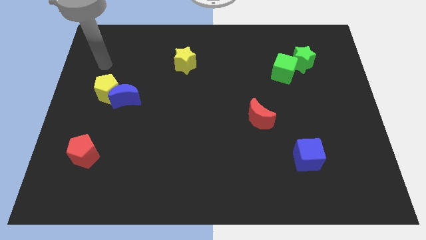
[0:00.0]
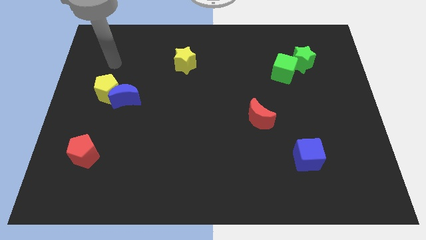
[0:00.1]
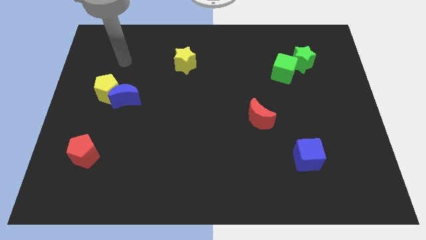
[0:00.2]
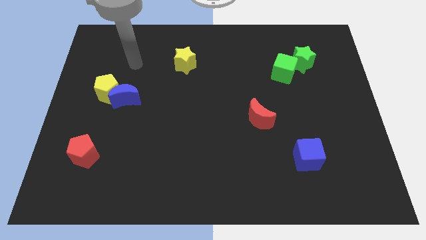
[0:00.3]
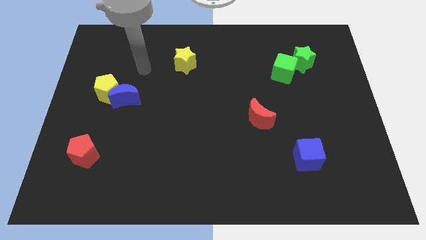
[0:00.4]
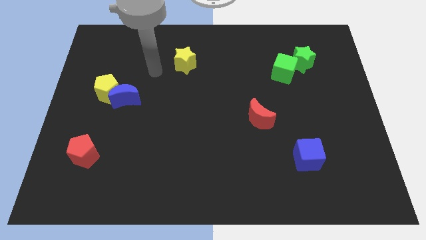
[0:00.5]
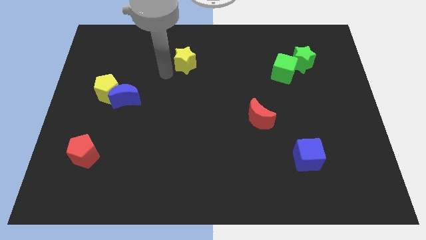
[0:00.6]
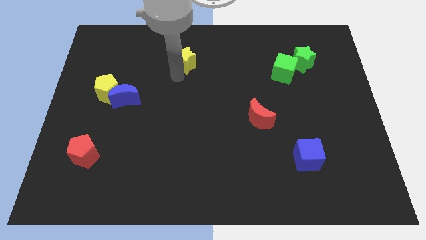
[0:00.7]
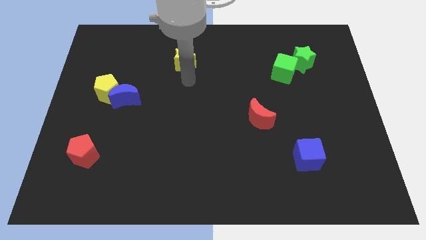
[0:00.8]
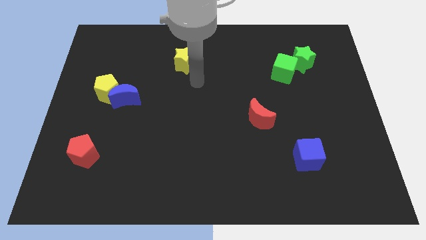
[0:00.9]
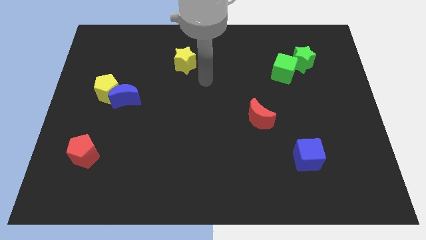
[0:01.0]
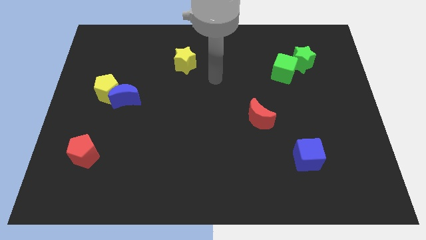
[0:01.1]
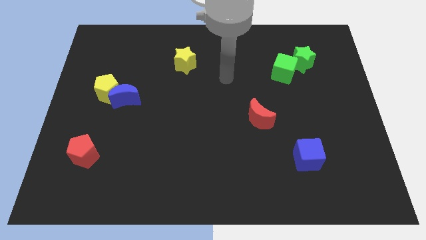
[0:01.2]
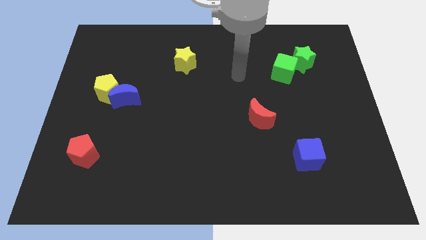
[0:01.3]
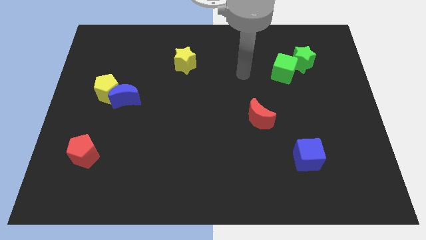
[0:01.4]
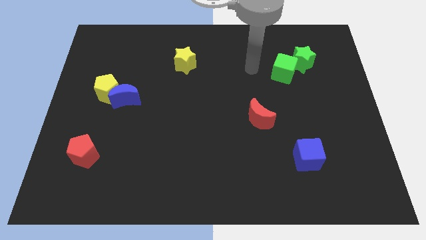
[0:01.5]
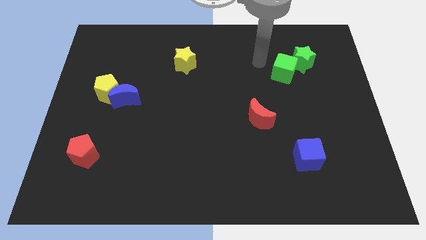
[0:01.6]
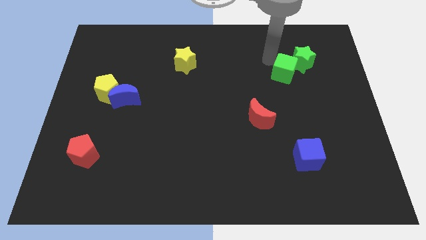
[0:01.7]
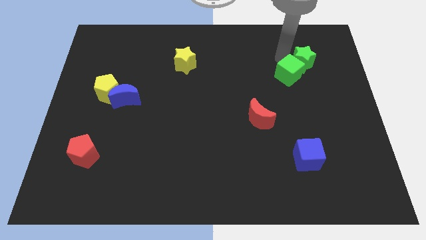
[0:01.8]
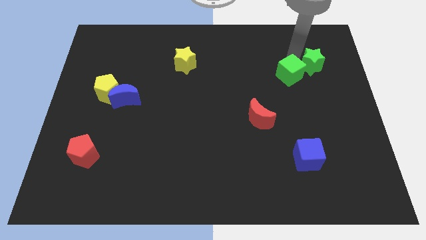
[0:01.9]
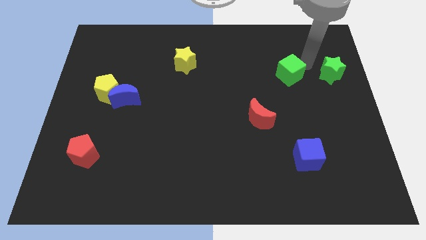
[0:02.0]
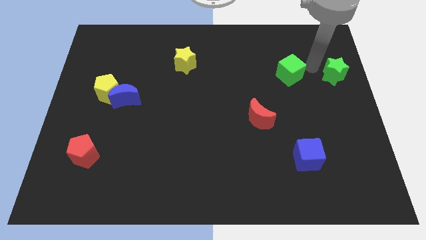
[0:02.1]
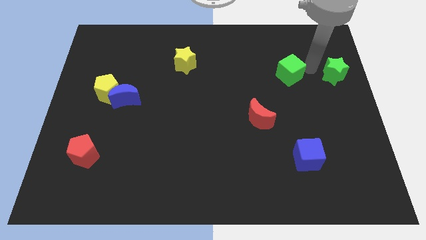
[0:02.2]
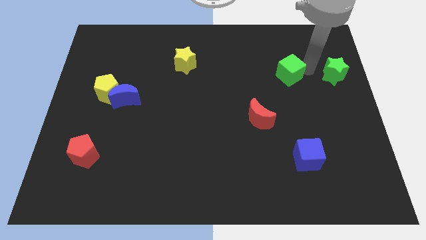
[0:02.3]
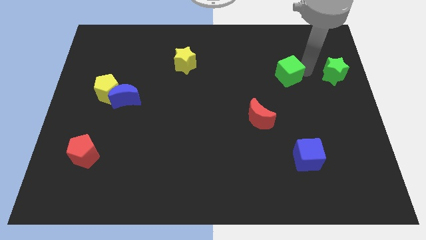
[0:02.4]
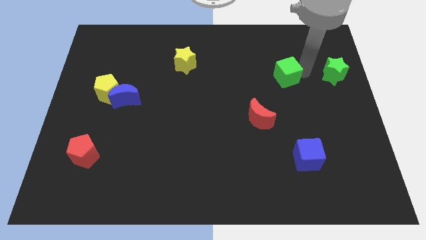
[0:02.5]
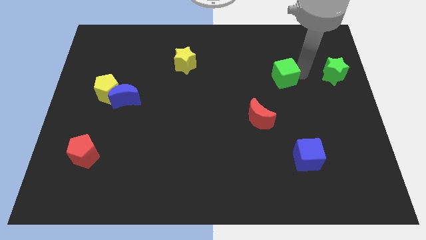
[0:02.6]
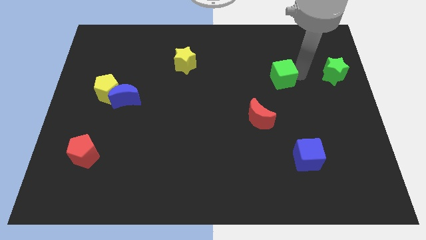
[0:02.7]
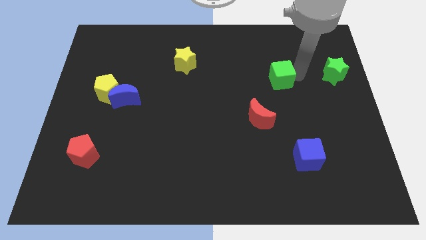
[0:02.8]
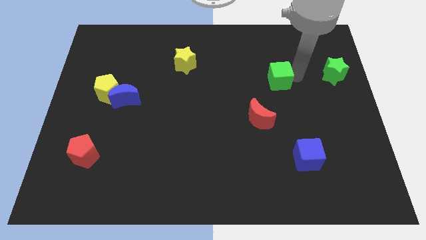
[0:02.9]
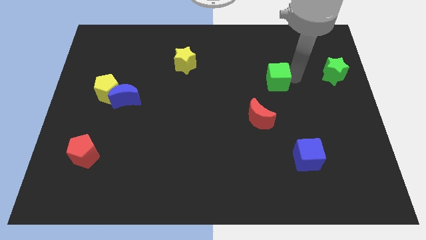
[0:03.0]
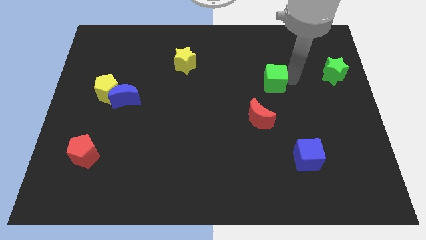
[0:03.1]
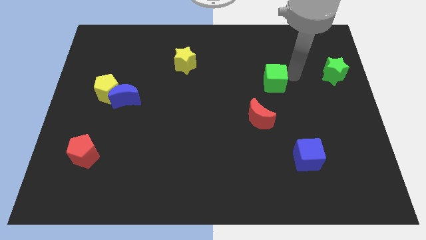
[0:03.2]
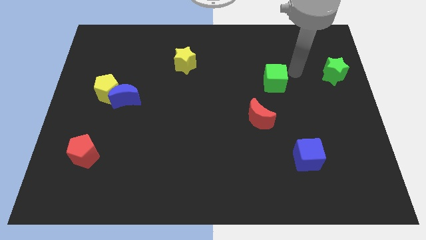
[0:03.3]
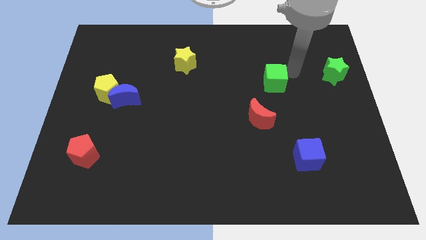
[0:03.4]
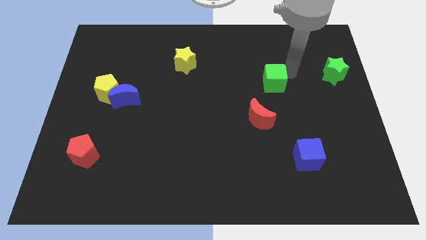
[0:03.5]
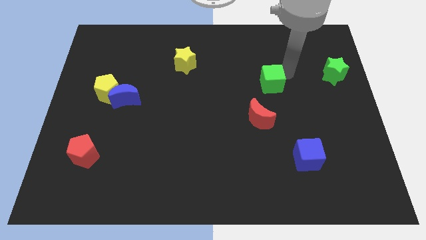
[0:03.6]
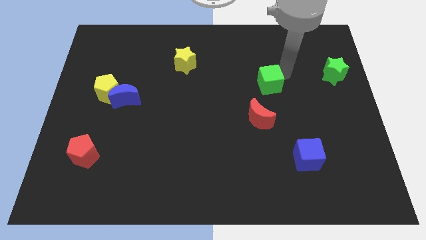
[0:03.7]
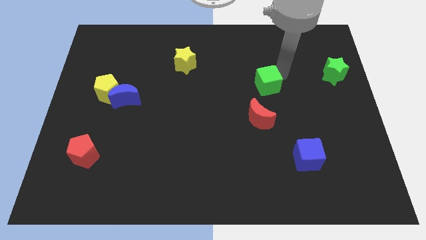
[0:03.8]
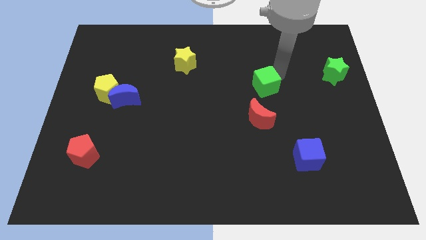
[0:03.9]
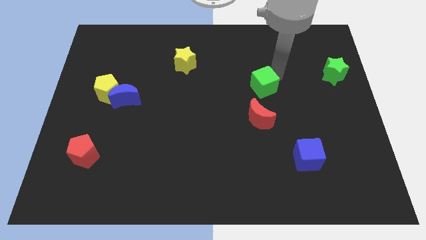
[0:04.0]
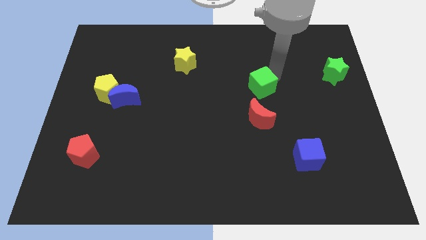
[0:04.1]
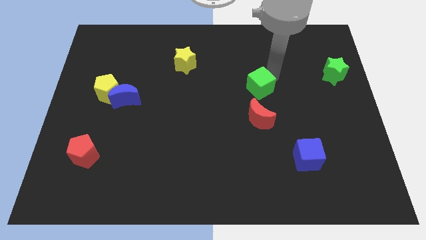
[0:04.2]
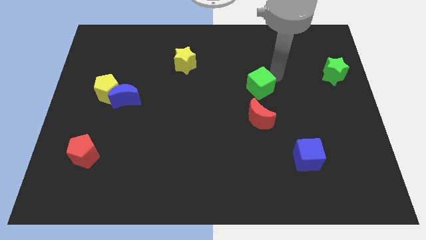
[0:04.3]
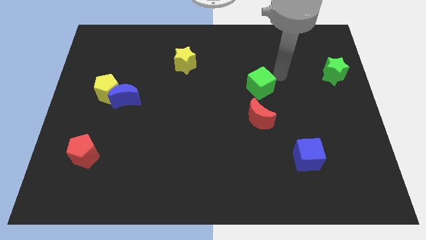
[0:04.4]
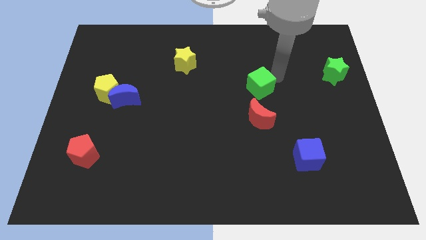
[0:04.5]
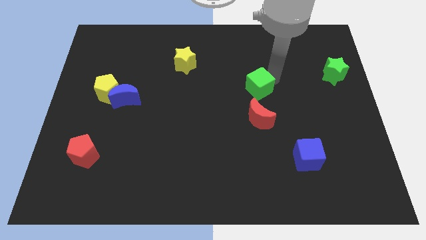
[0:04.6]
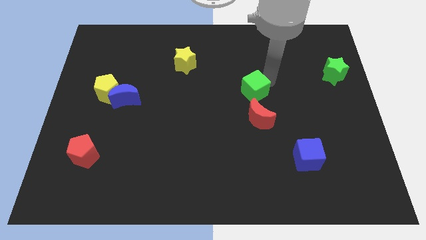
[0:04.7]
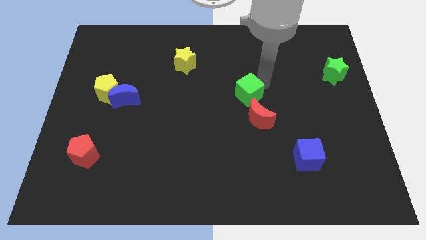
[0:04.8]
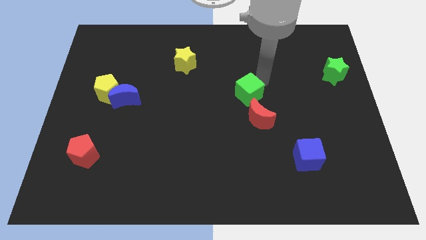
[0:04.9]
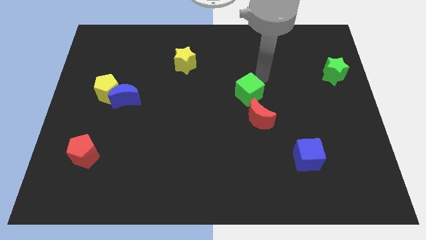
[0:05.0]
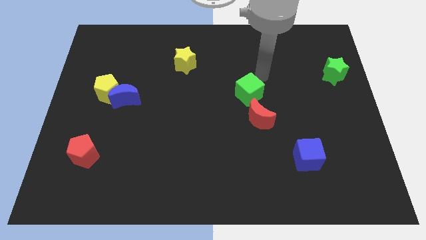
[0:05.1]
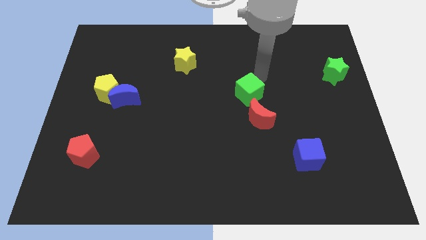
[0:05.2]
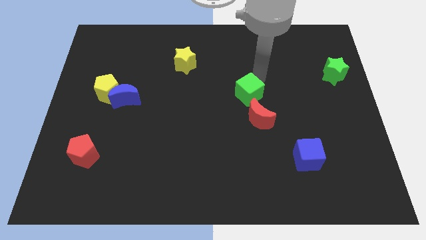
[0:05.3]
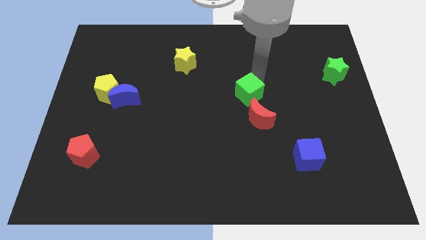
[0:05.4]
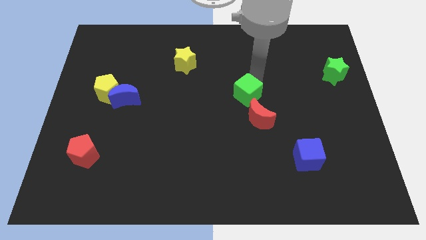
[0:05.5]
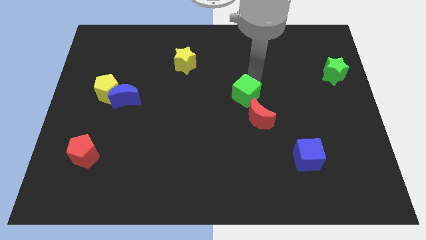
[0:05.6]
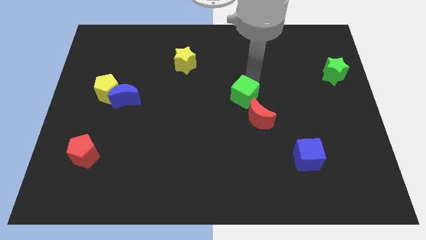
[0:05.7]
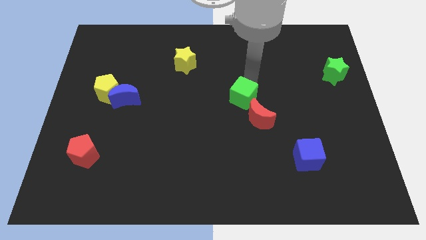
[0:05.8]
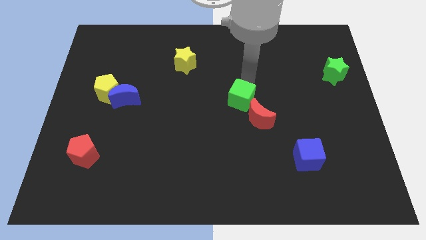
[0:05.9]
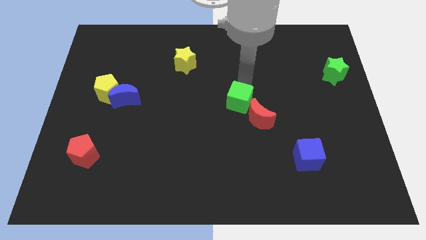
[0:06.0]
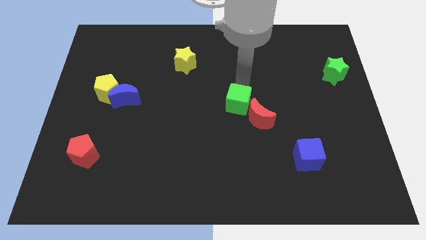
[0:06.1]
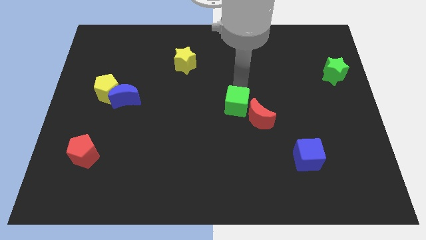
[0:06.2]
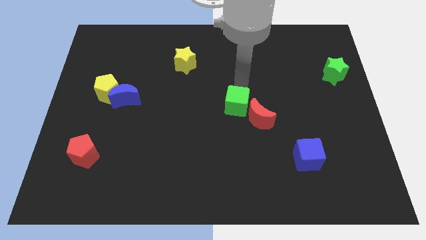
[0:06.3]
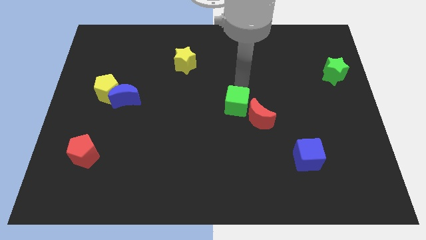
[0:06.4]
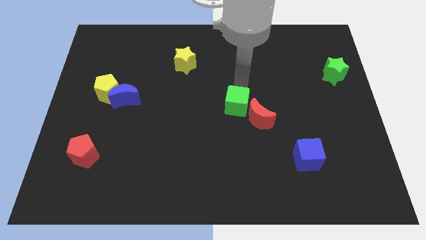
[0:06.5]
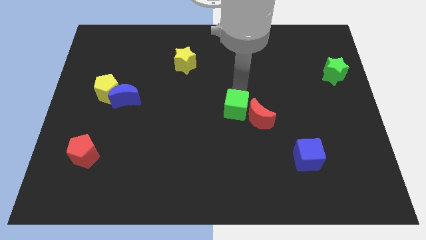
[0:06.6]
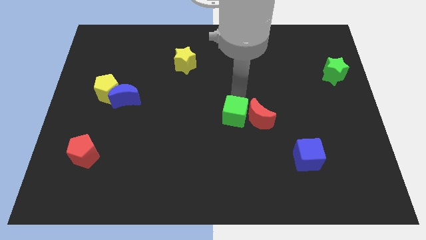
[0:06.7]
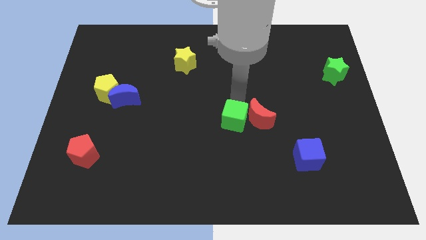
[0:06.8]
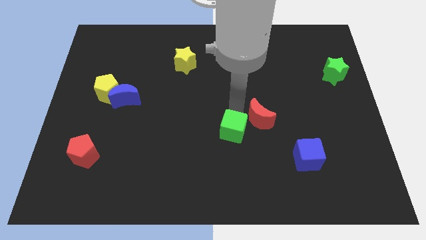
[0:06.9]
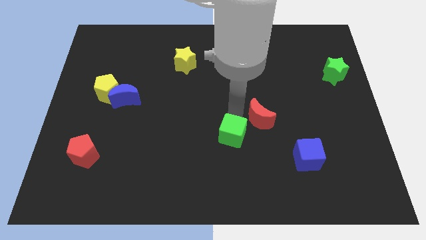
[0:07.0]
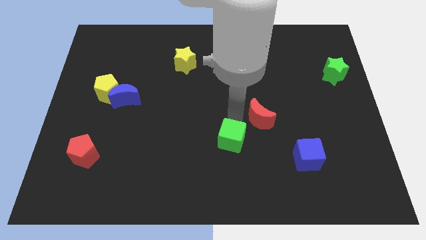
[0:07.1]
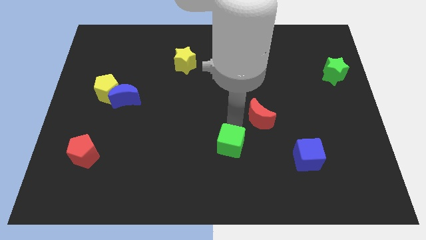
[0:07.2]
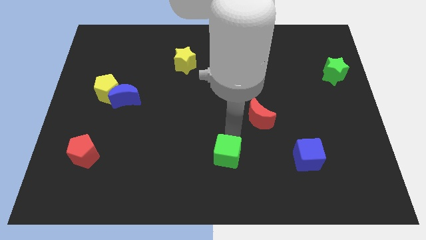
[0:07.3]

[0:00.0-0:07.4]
push the green cube to the bottom side
